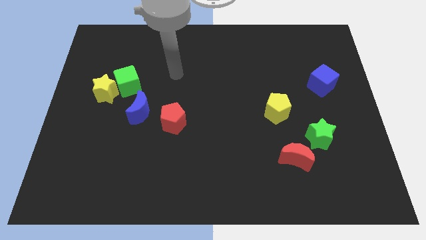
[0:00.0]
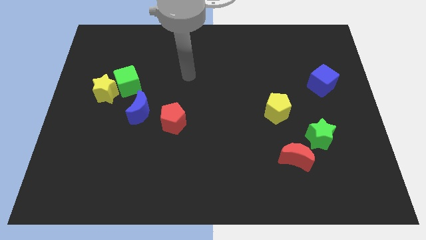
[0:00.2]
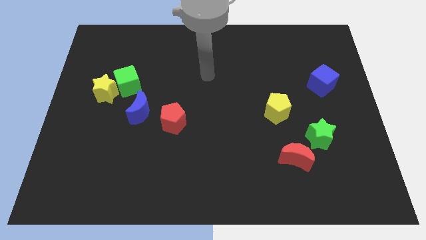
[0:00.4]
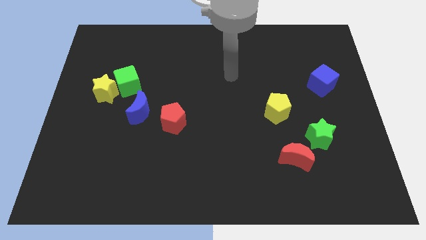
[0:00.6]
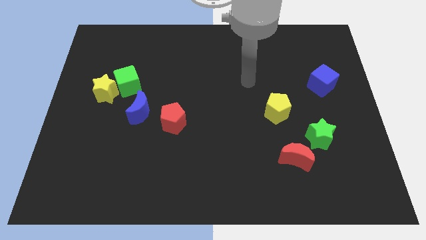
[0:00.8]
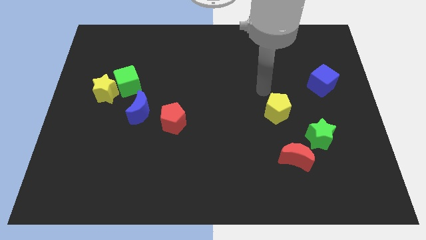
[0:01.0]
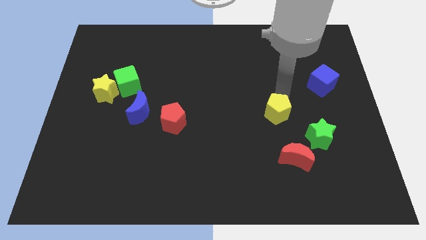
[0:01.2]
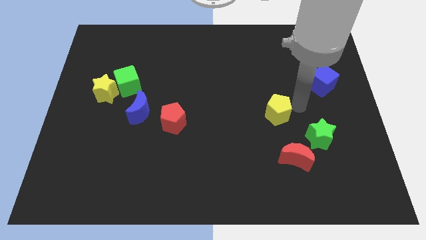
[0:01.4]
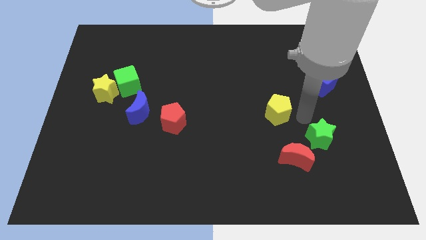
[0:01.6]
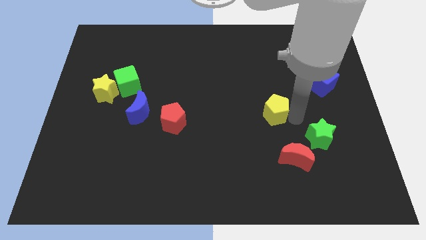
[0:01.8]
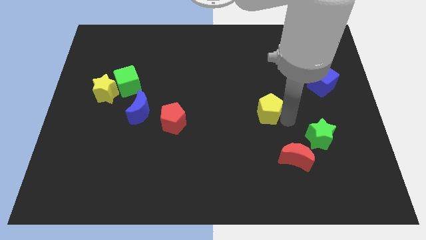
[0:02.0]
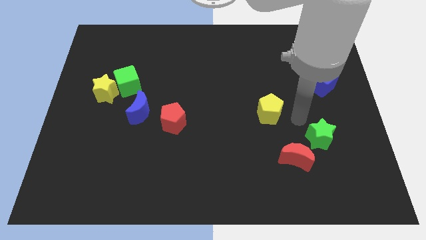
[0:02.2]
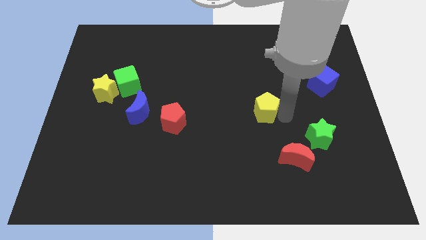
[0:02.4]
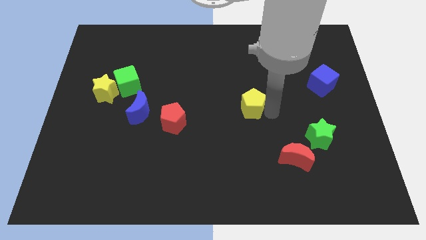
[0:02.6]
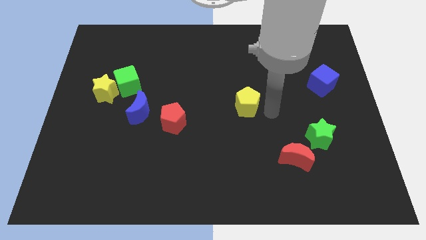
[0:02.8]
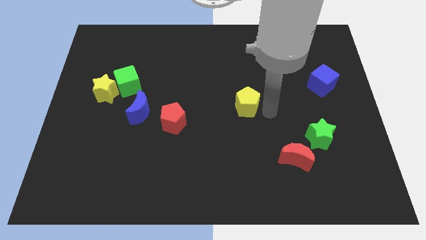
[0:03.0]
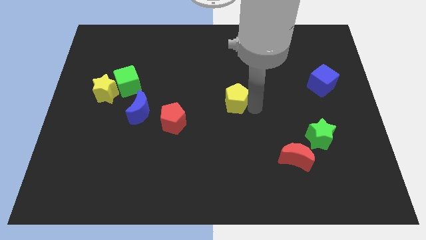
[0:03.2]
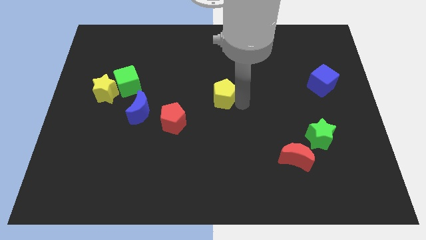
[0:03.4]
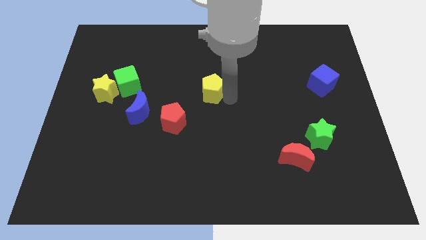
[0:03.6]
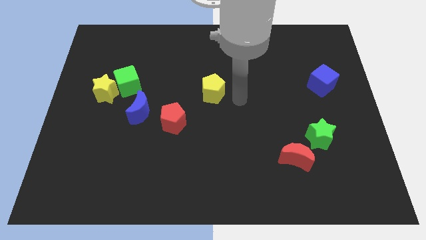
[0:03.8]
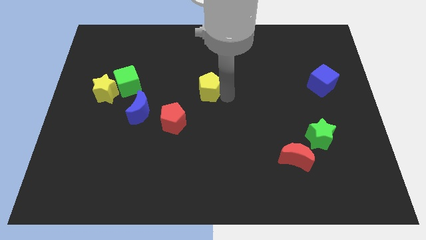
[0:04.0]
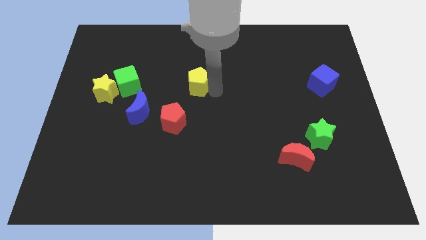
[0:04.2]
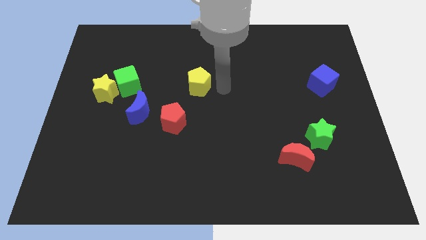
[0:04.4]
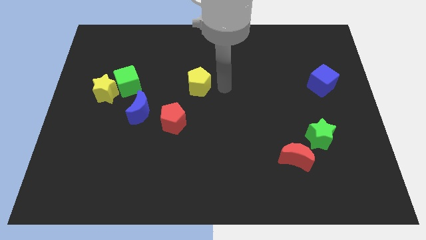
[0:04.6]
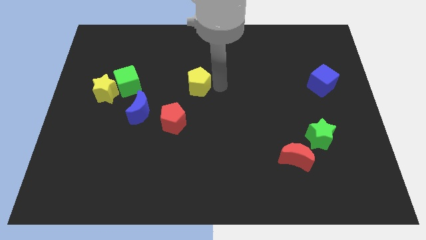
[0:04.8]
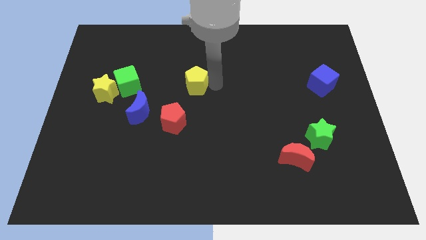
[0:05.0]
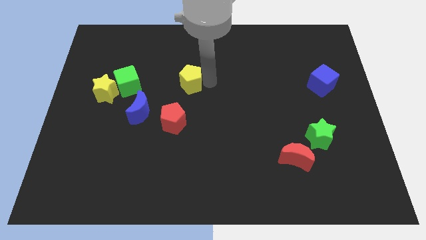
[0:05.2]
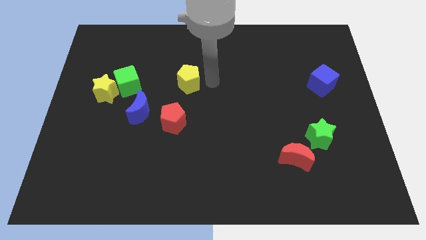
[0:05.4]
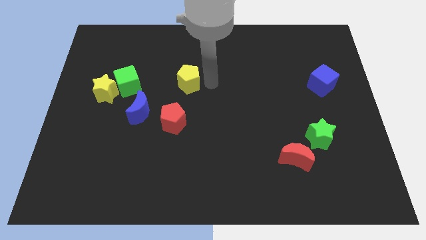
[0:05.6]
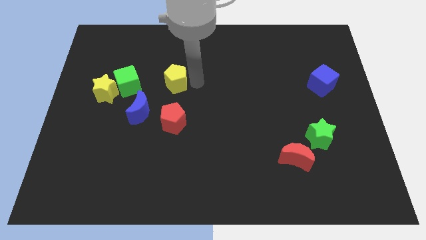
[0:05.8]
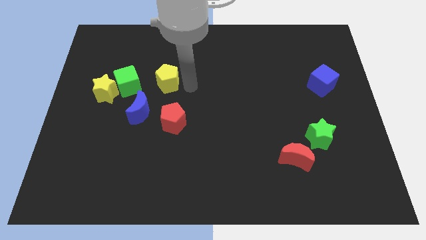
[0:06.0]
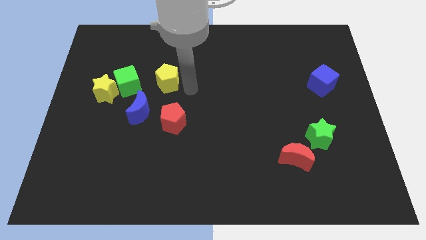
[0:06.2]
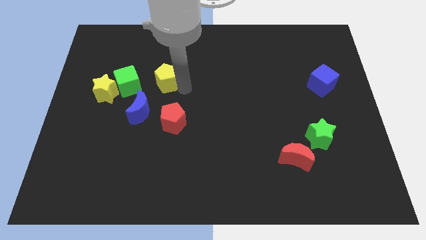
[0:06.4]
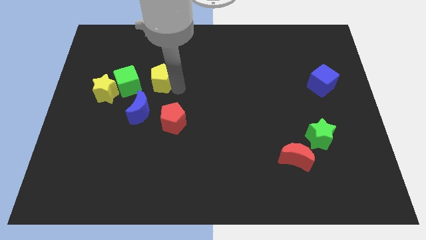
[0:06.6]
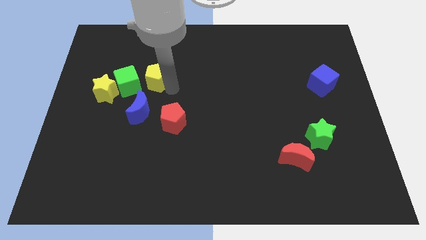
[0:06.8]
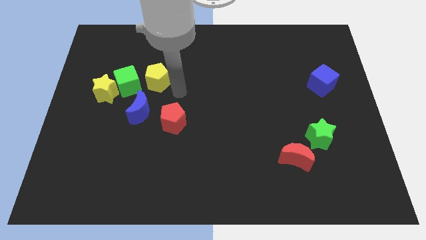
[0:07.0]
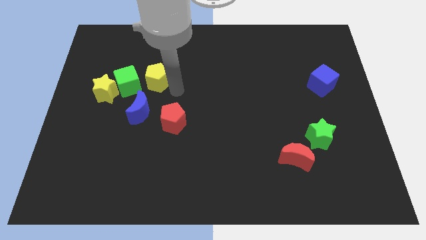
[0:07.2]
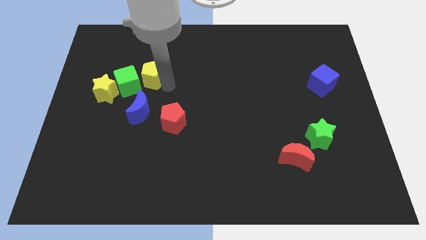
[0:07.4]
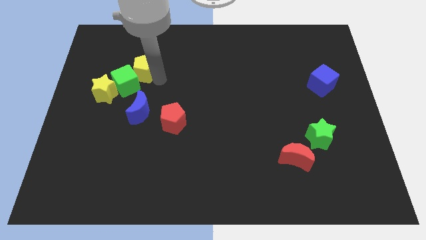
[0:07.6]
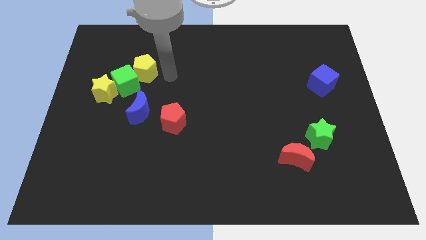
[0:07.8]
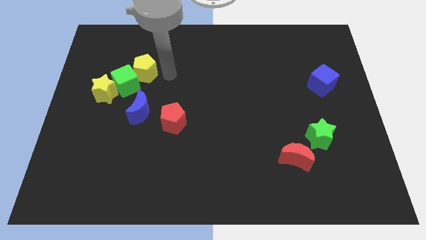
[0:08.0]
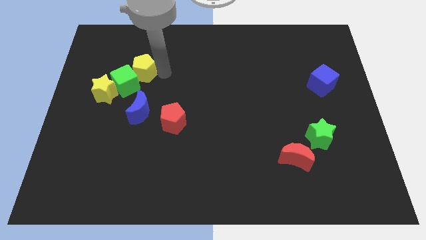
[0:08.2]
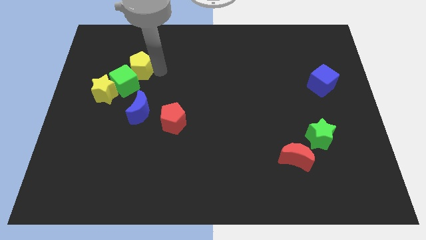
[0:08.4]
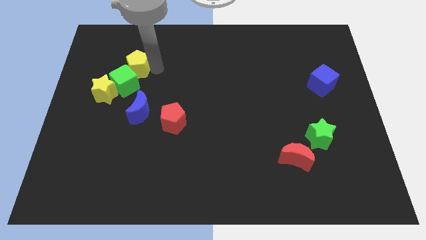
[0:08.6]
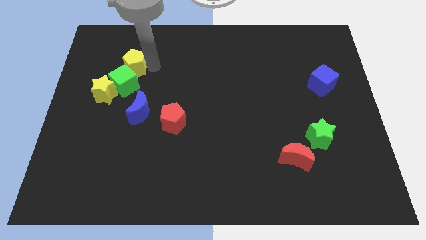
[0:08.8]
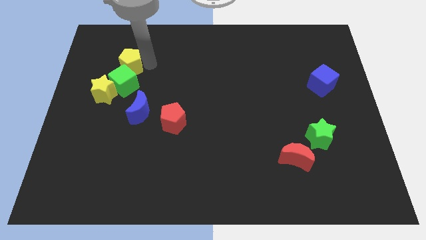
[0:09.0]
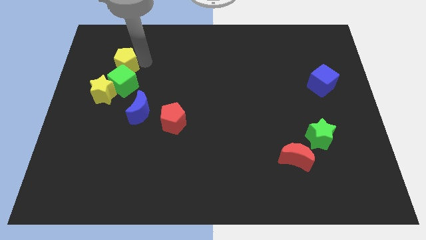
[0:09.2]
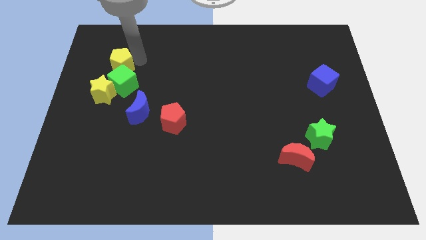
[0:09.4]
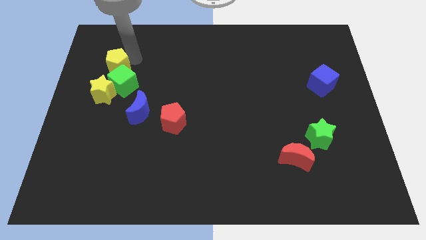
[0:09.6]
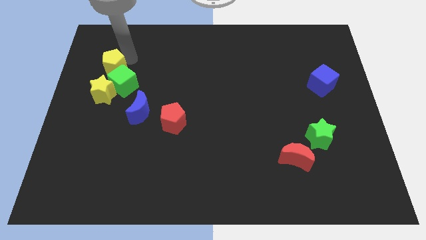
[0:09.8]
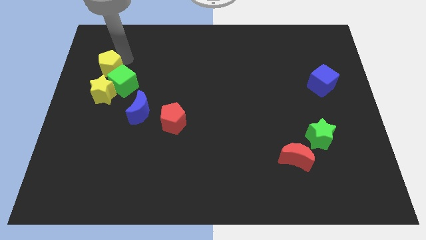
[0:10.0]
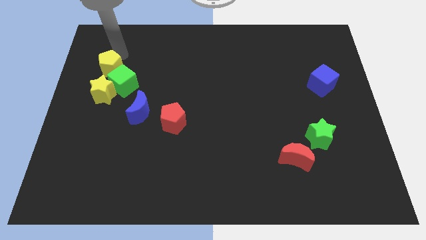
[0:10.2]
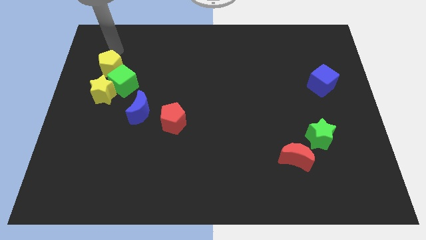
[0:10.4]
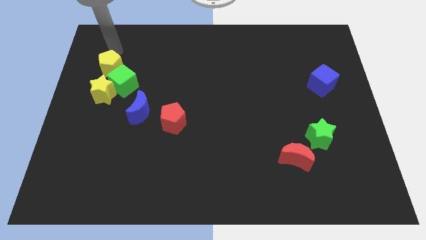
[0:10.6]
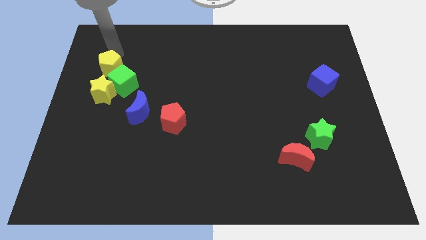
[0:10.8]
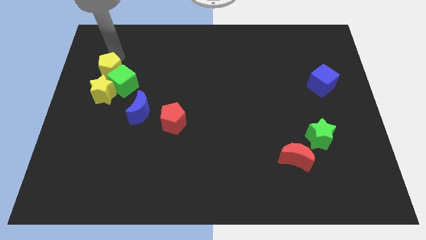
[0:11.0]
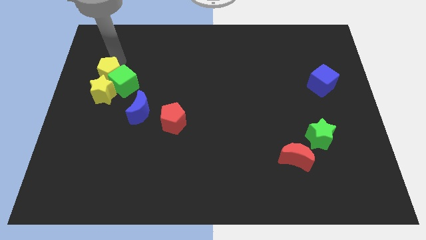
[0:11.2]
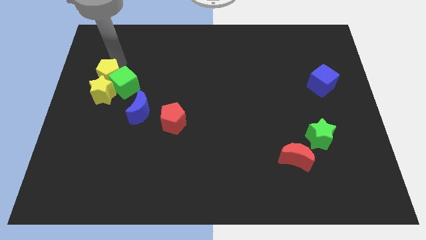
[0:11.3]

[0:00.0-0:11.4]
push the yellow pentagon close to the yellow star
